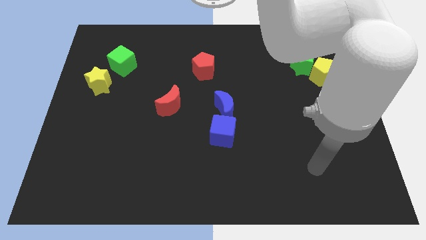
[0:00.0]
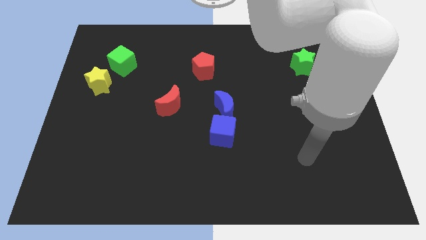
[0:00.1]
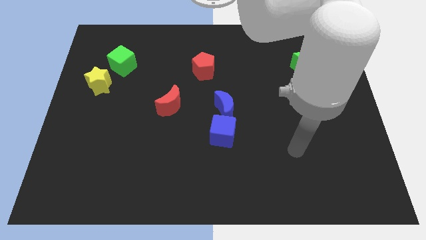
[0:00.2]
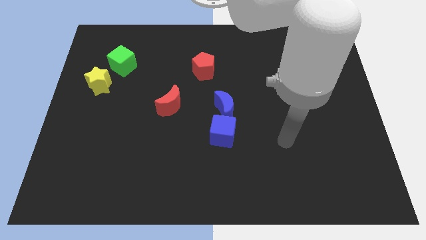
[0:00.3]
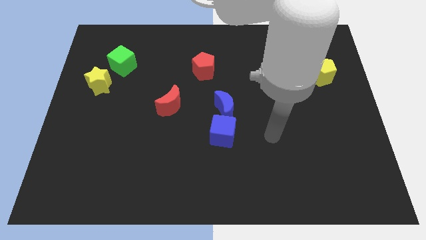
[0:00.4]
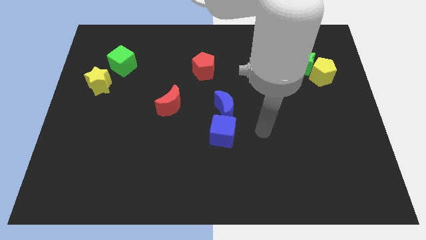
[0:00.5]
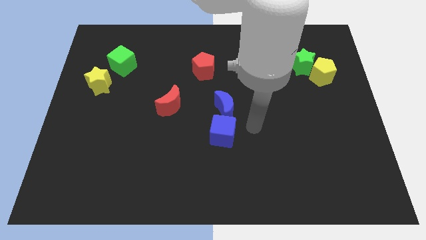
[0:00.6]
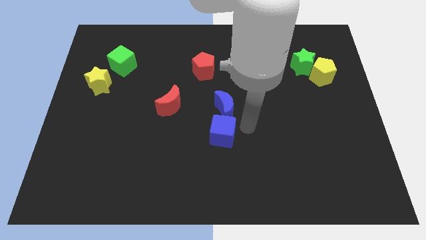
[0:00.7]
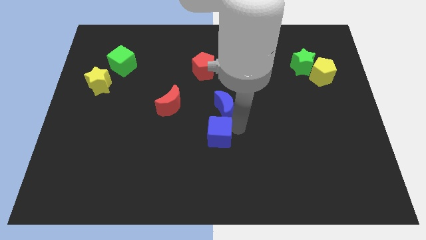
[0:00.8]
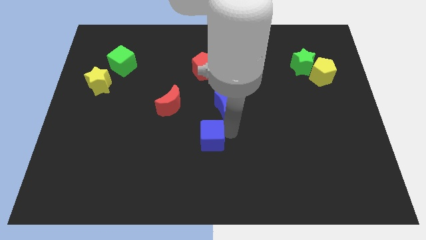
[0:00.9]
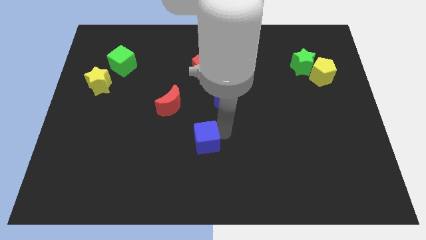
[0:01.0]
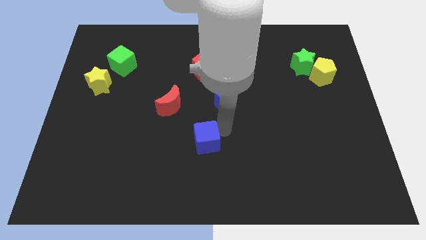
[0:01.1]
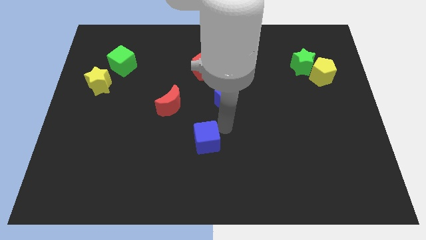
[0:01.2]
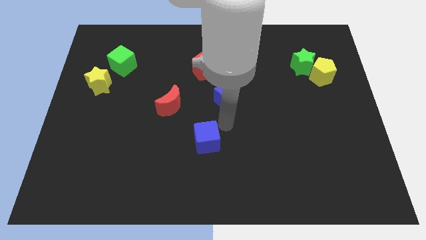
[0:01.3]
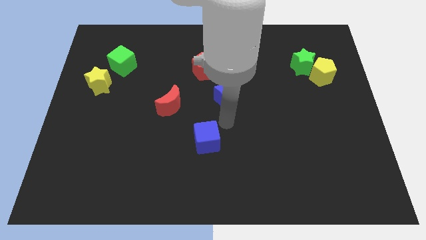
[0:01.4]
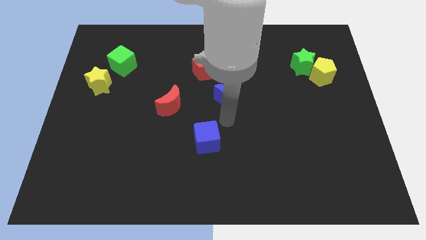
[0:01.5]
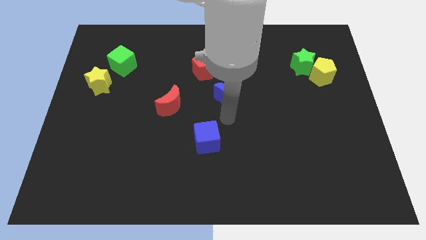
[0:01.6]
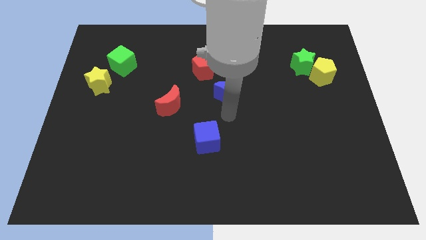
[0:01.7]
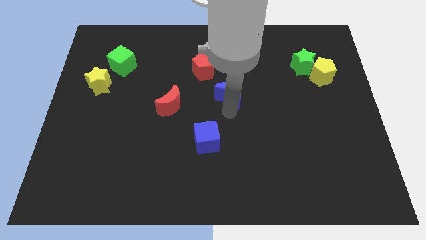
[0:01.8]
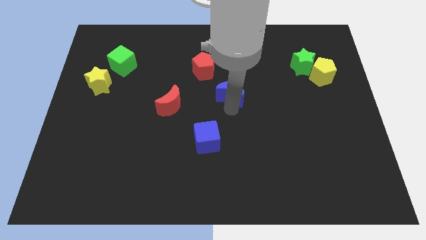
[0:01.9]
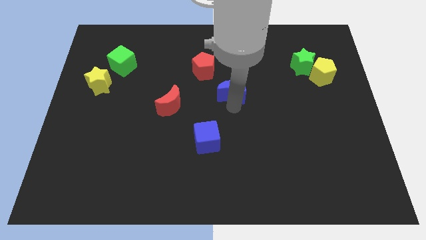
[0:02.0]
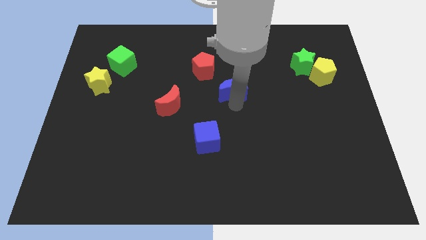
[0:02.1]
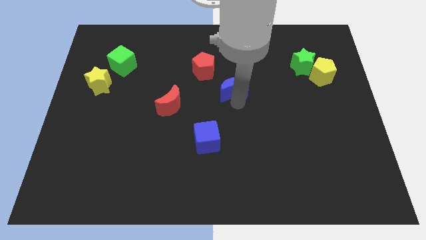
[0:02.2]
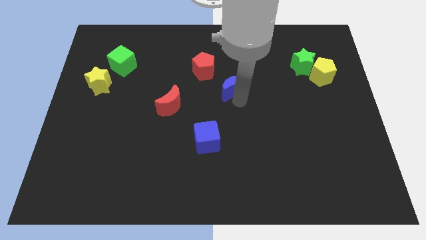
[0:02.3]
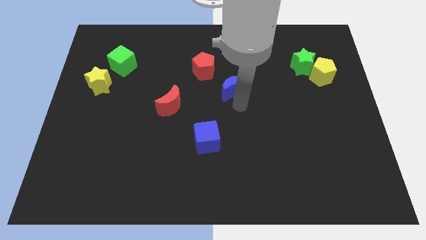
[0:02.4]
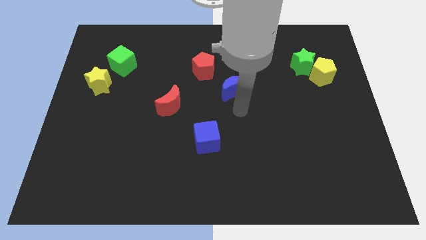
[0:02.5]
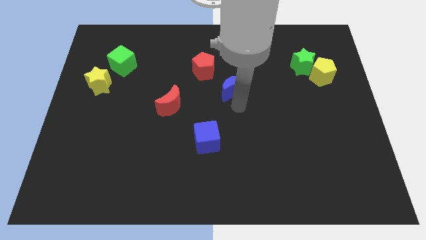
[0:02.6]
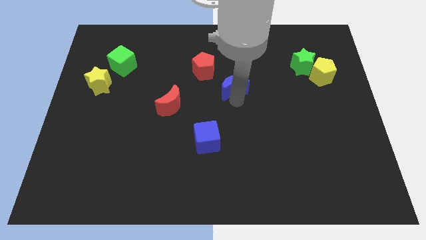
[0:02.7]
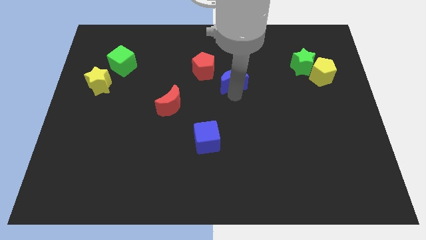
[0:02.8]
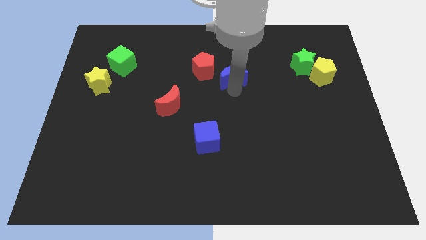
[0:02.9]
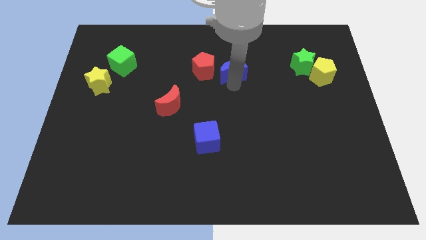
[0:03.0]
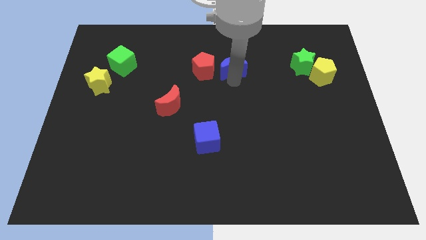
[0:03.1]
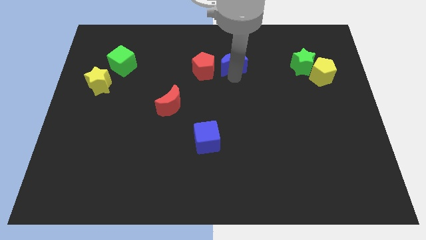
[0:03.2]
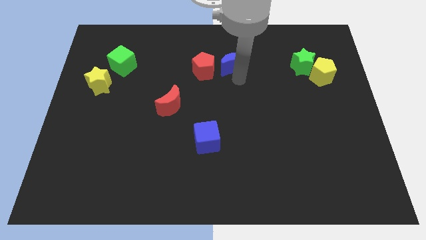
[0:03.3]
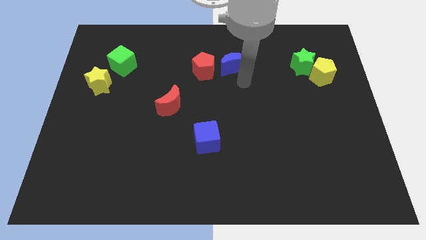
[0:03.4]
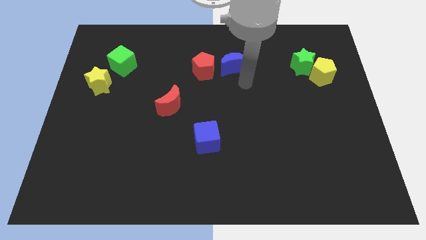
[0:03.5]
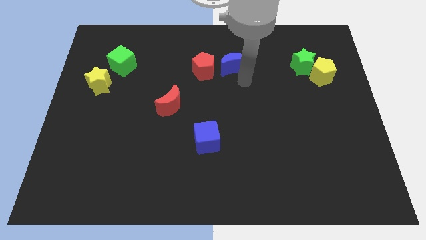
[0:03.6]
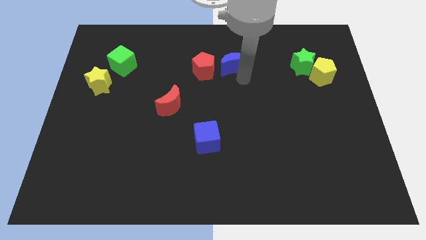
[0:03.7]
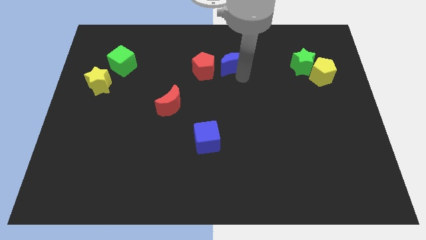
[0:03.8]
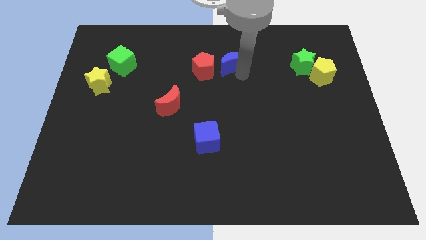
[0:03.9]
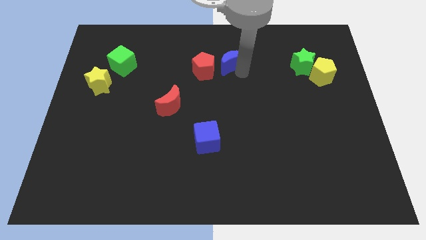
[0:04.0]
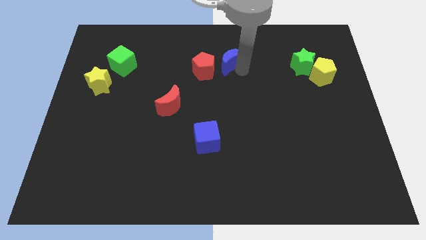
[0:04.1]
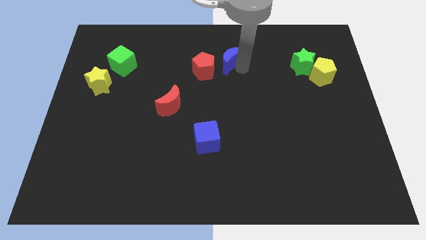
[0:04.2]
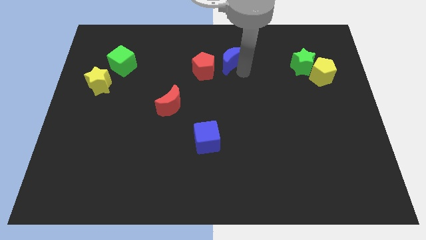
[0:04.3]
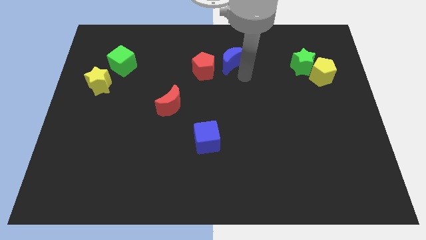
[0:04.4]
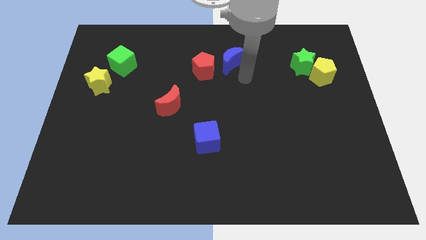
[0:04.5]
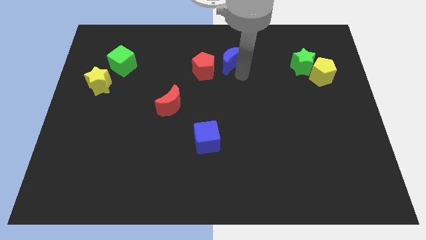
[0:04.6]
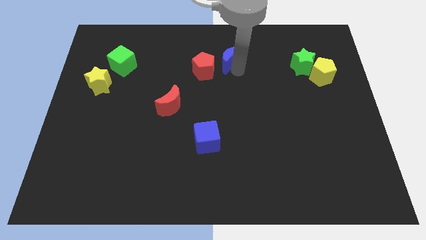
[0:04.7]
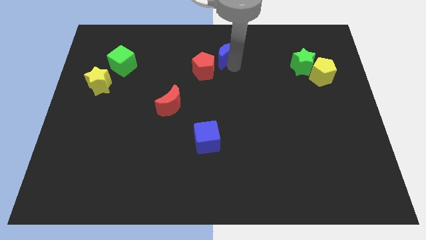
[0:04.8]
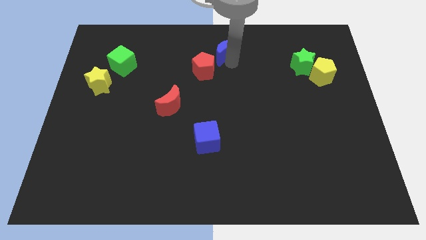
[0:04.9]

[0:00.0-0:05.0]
move the blue moon to the towards your base

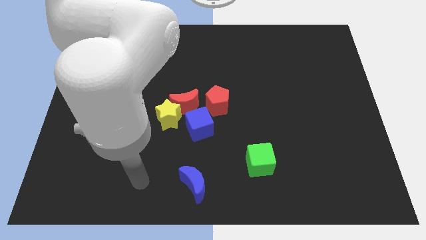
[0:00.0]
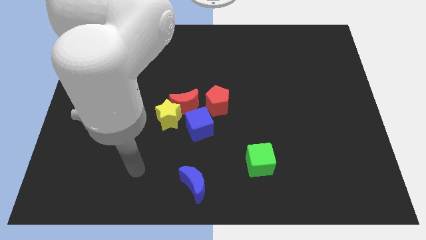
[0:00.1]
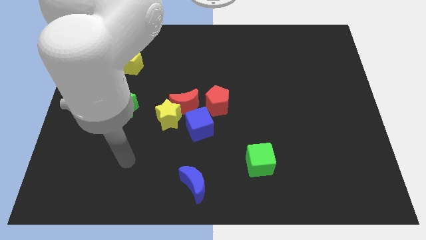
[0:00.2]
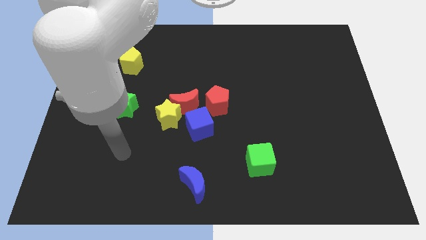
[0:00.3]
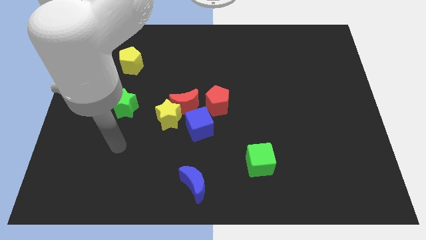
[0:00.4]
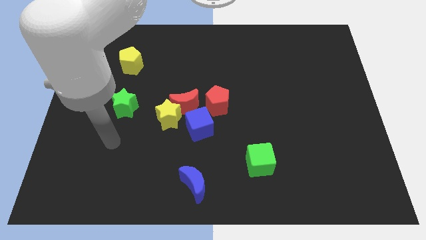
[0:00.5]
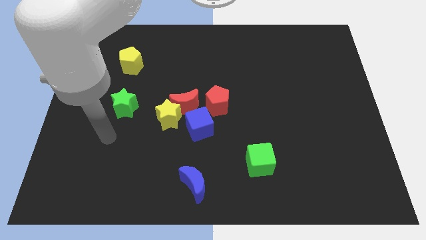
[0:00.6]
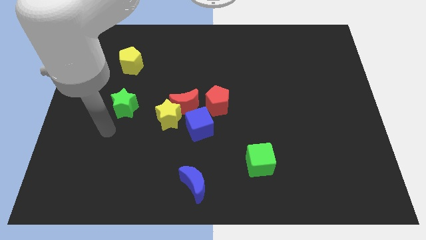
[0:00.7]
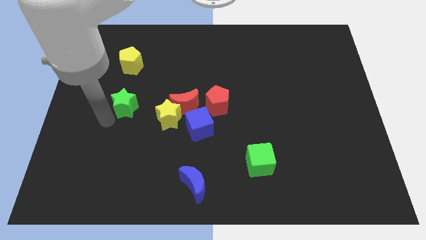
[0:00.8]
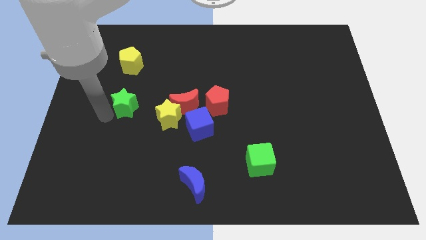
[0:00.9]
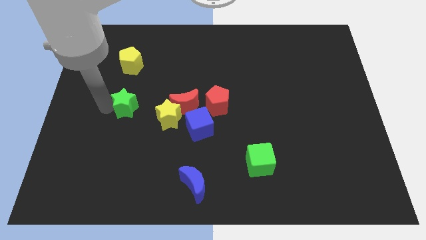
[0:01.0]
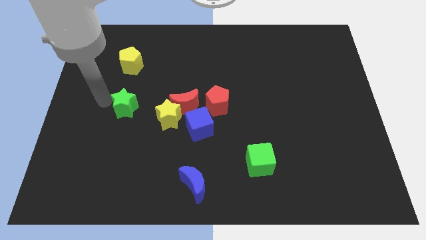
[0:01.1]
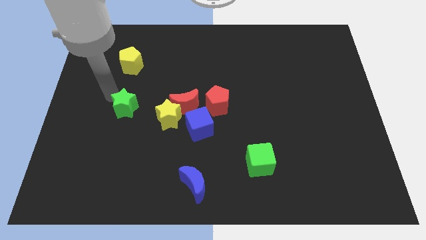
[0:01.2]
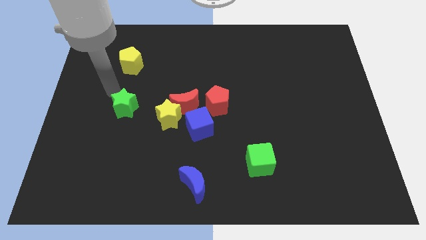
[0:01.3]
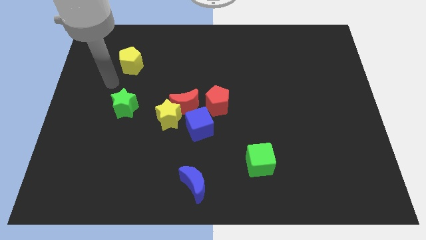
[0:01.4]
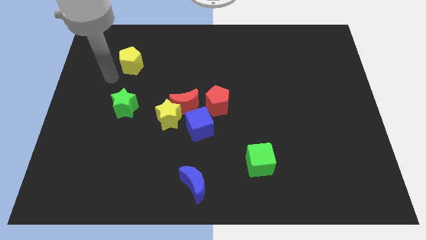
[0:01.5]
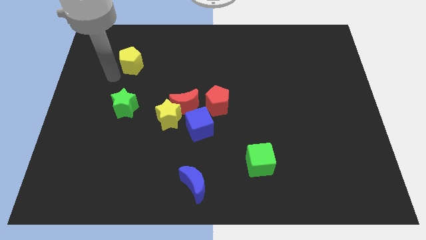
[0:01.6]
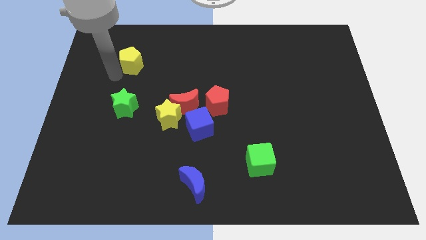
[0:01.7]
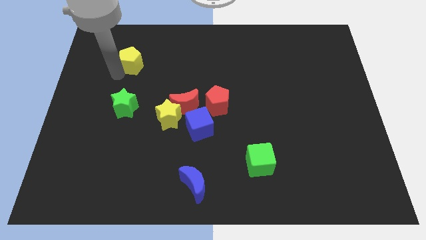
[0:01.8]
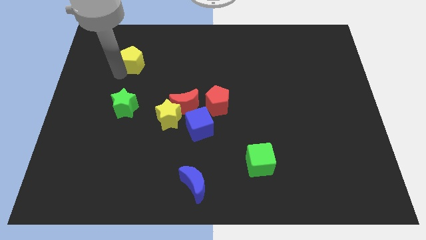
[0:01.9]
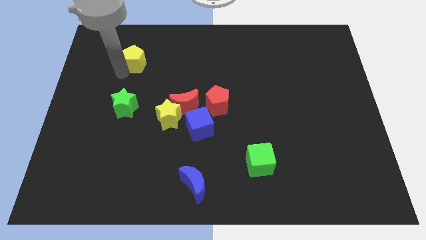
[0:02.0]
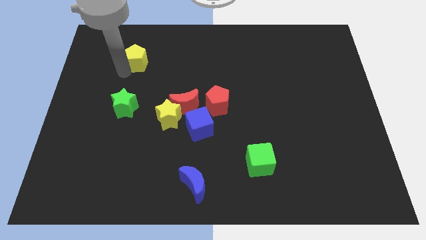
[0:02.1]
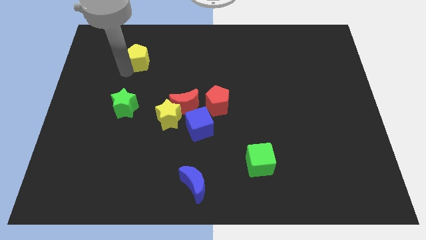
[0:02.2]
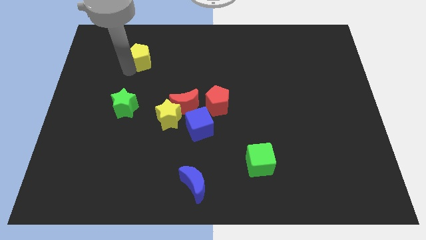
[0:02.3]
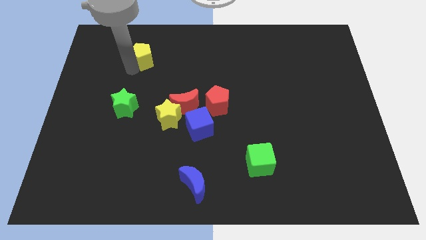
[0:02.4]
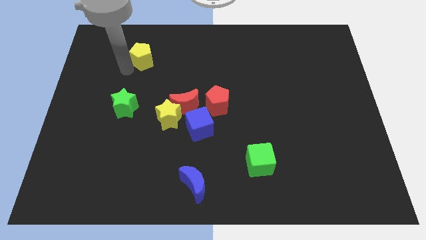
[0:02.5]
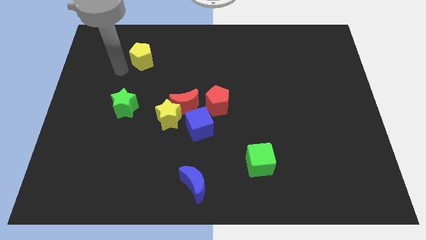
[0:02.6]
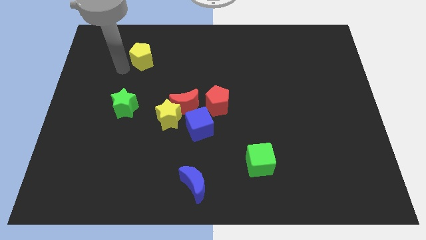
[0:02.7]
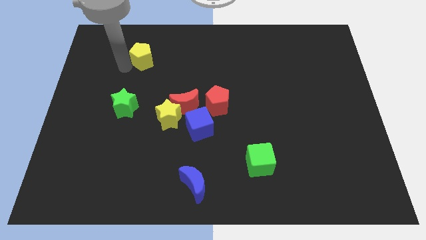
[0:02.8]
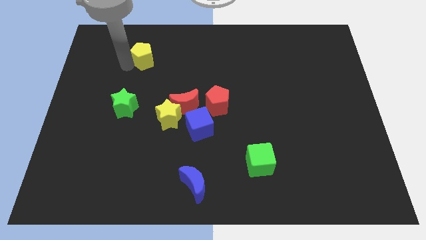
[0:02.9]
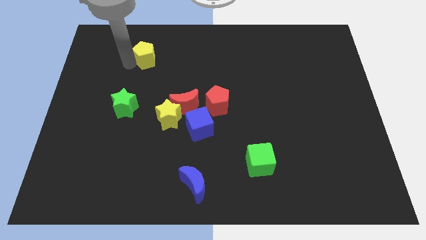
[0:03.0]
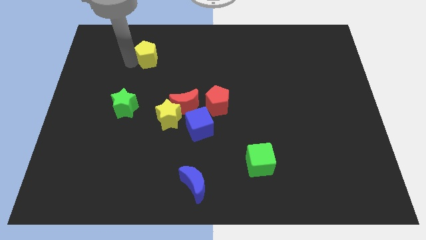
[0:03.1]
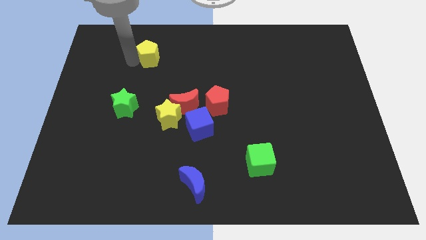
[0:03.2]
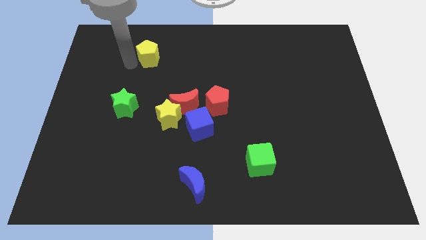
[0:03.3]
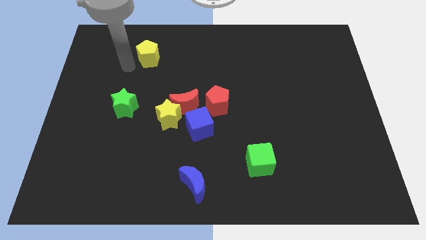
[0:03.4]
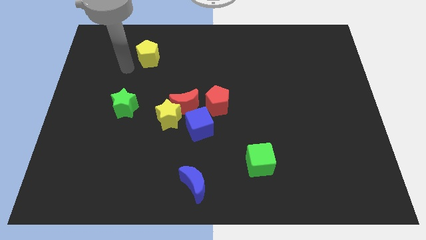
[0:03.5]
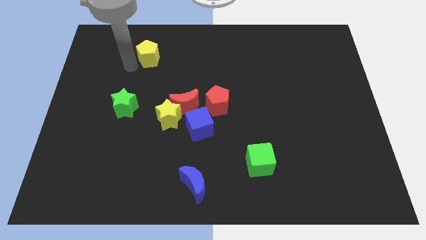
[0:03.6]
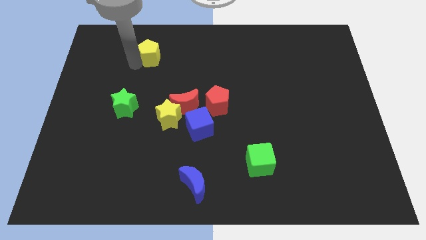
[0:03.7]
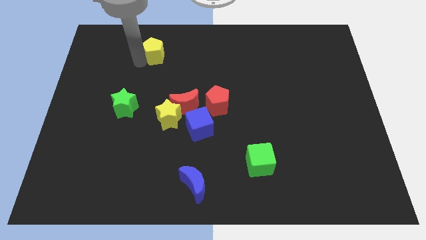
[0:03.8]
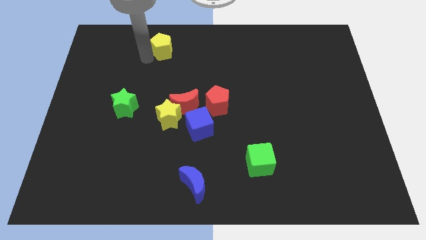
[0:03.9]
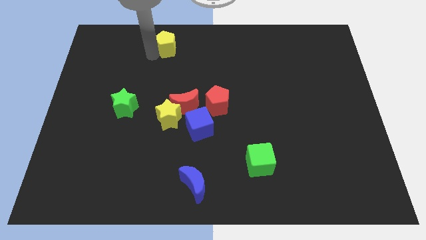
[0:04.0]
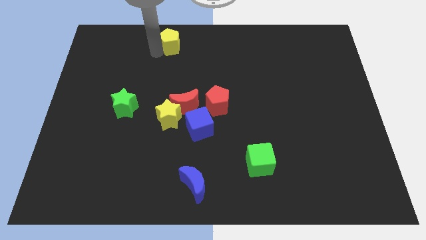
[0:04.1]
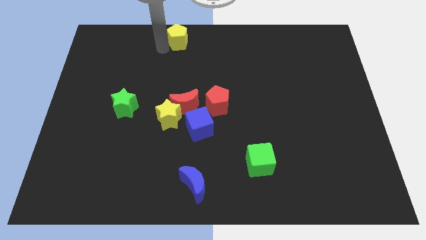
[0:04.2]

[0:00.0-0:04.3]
move the yellow pentagon to the towards your base
